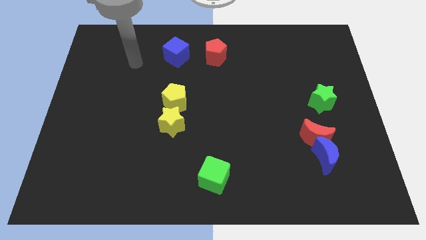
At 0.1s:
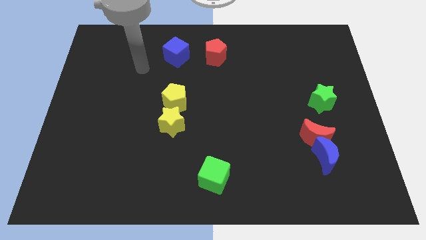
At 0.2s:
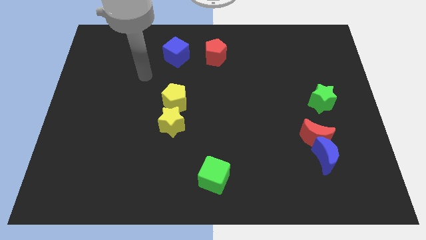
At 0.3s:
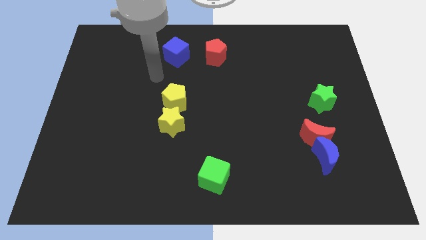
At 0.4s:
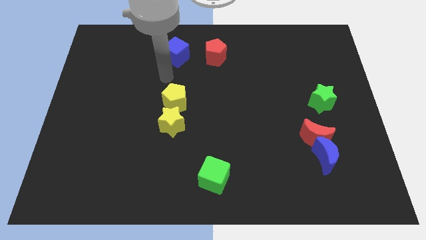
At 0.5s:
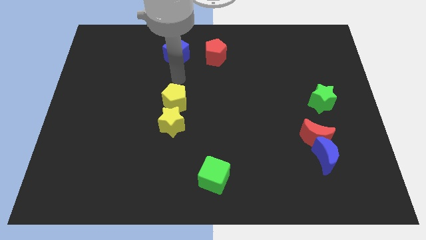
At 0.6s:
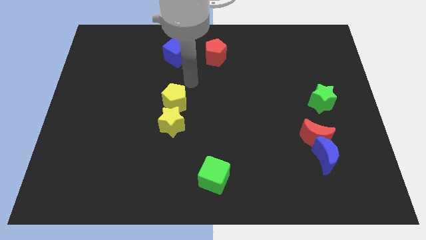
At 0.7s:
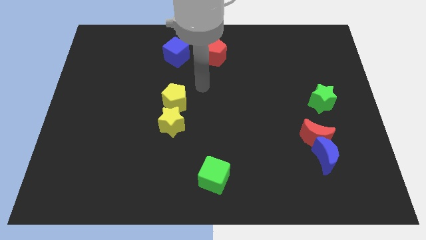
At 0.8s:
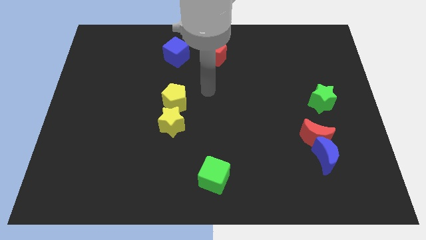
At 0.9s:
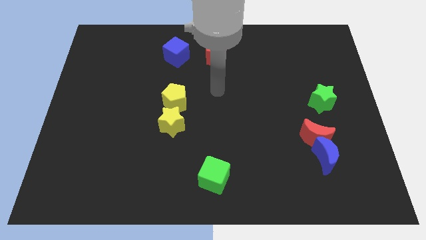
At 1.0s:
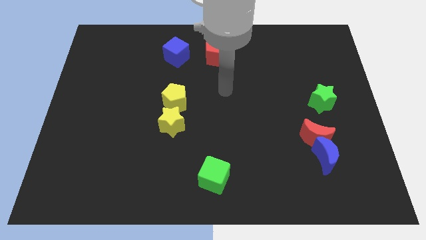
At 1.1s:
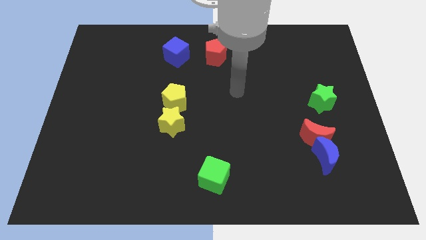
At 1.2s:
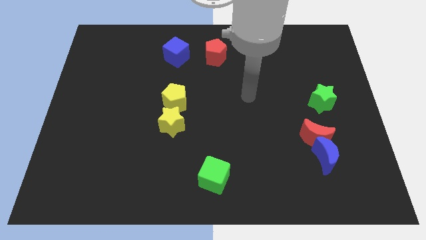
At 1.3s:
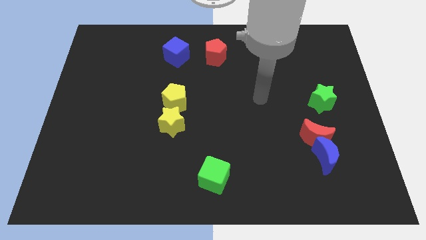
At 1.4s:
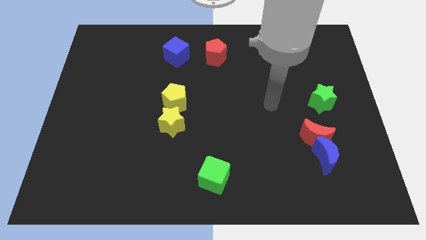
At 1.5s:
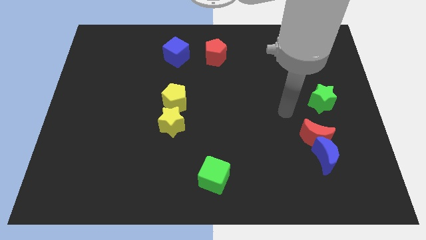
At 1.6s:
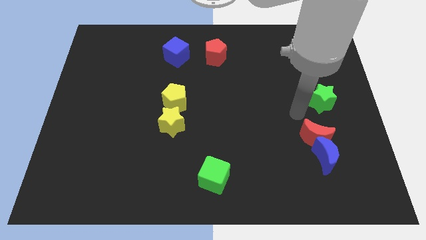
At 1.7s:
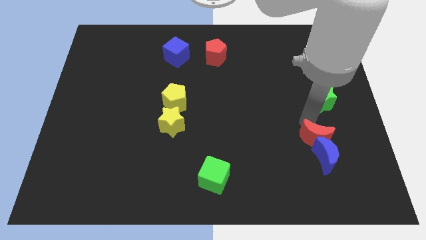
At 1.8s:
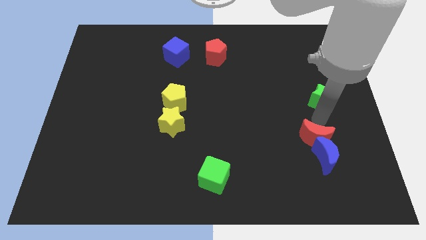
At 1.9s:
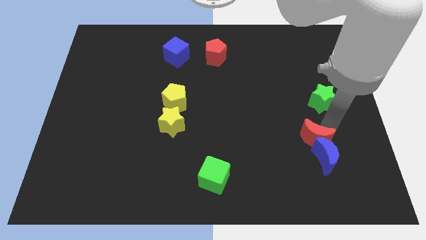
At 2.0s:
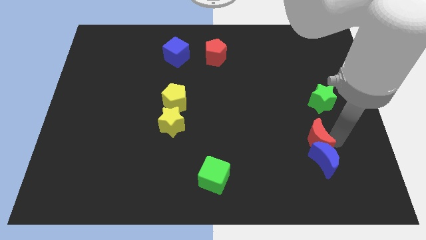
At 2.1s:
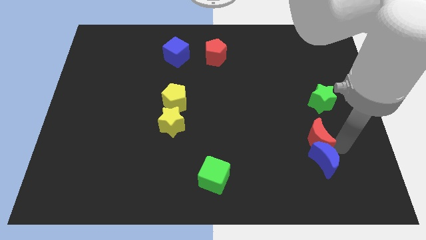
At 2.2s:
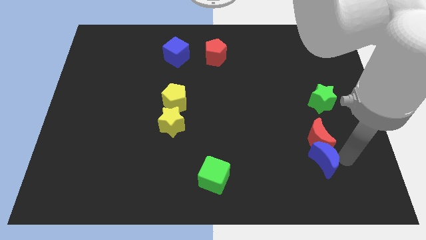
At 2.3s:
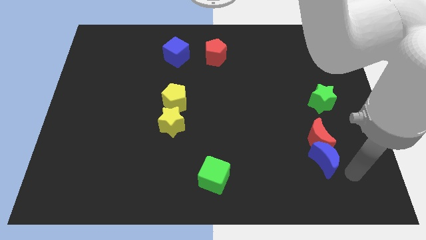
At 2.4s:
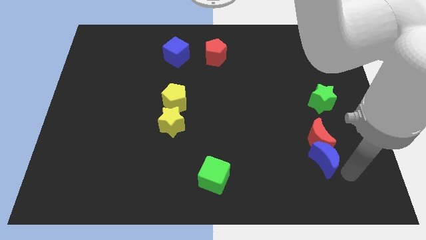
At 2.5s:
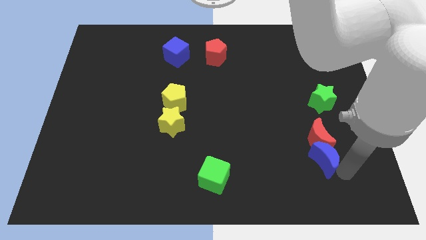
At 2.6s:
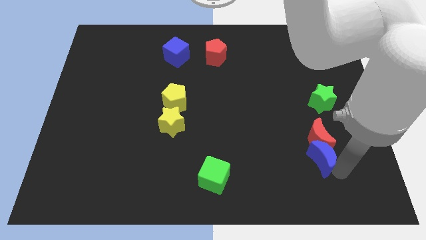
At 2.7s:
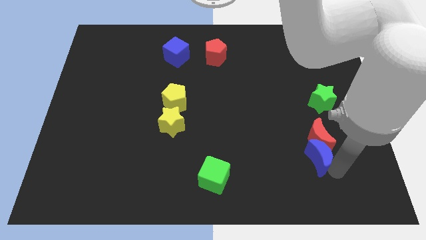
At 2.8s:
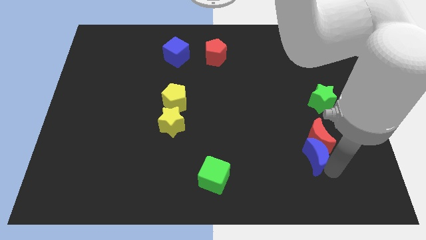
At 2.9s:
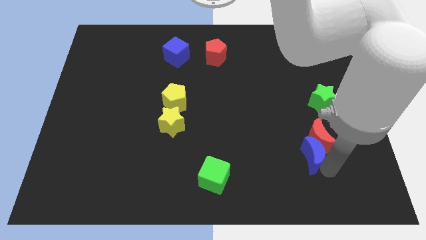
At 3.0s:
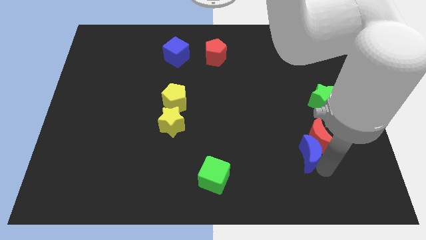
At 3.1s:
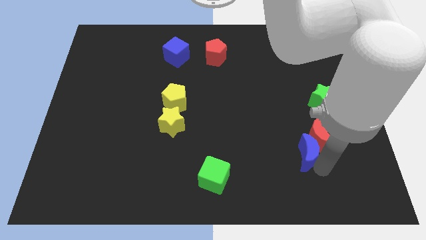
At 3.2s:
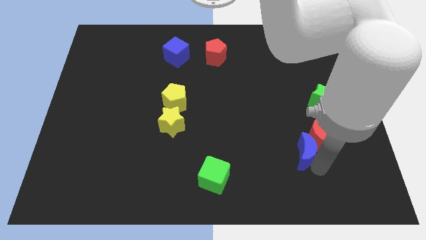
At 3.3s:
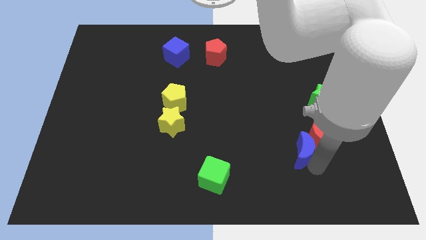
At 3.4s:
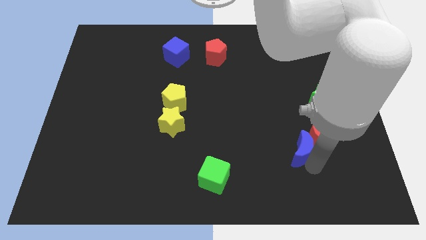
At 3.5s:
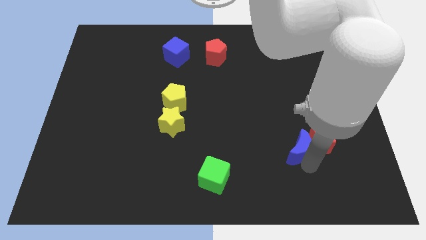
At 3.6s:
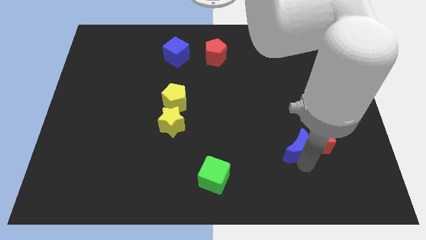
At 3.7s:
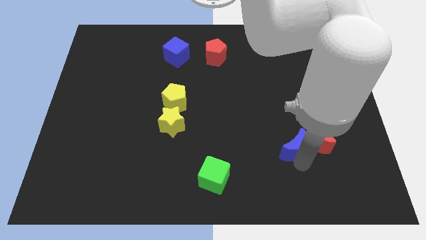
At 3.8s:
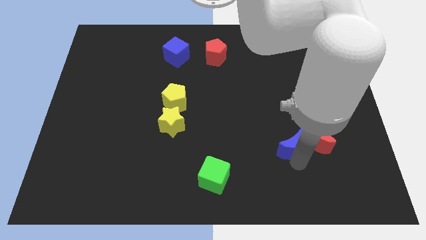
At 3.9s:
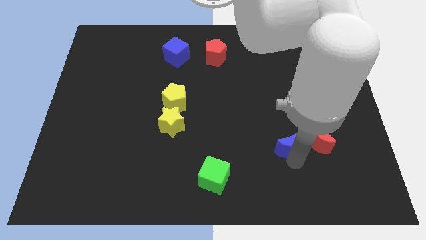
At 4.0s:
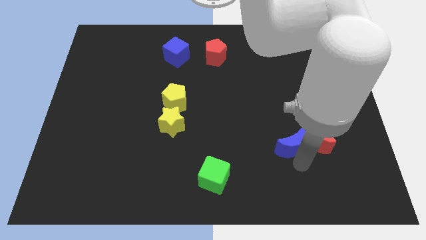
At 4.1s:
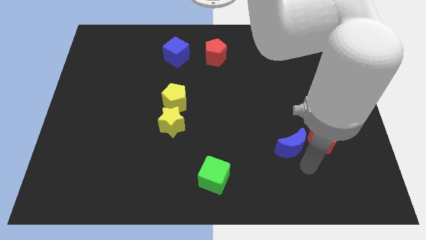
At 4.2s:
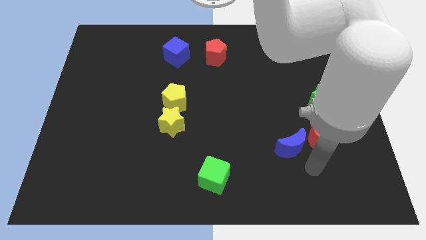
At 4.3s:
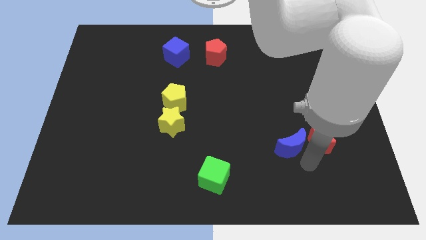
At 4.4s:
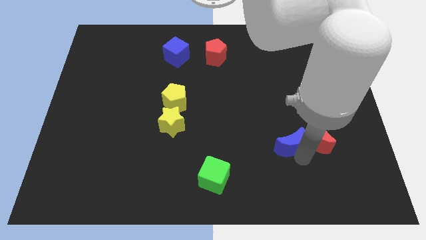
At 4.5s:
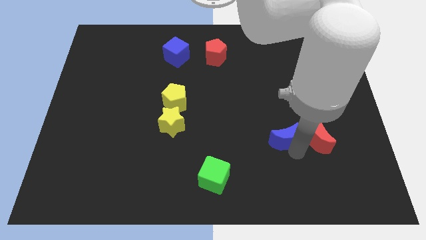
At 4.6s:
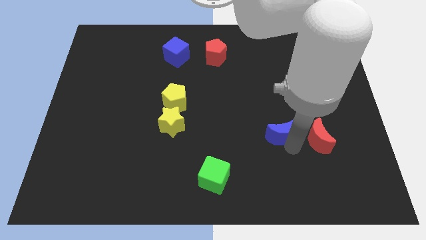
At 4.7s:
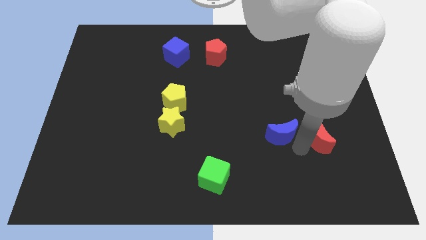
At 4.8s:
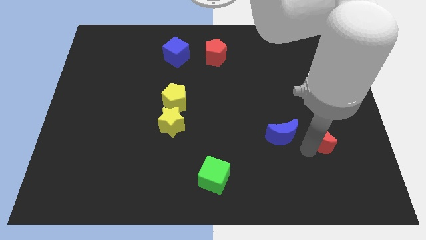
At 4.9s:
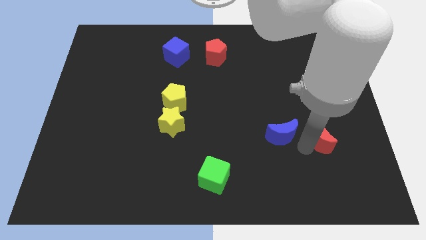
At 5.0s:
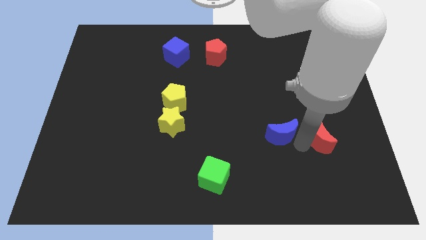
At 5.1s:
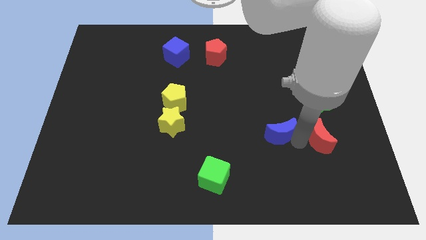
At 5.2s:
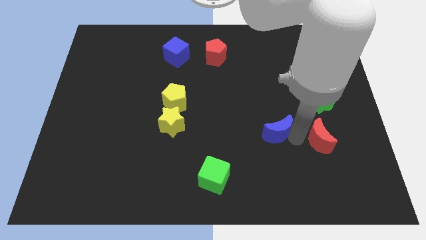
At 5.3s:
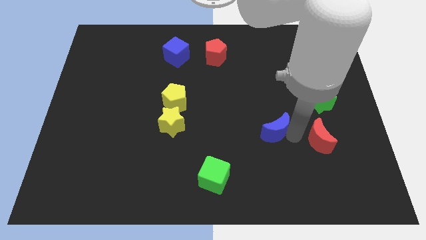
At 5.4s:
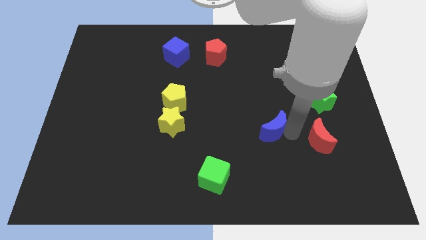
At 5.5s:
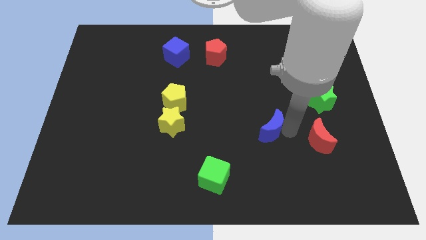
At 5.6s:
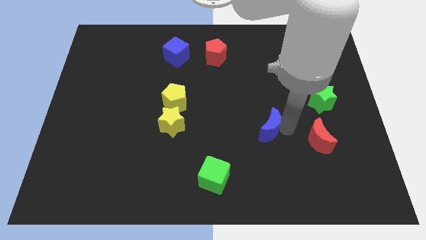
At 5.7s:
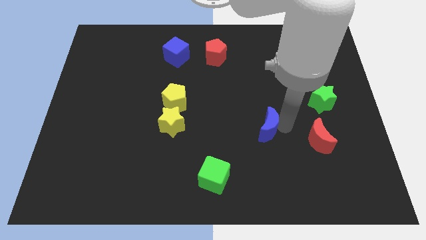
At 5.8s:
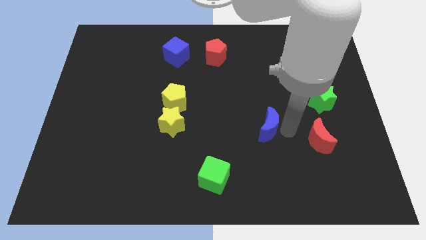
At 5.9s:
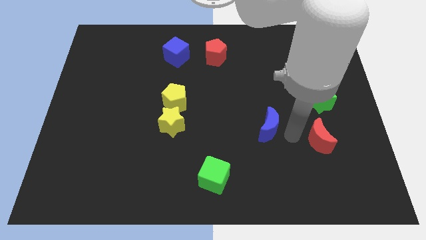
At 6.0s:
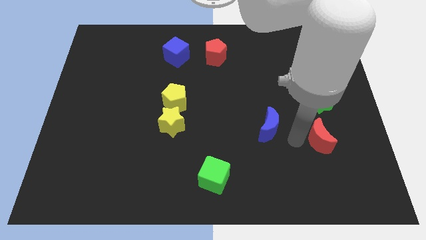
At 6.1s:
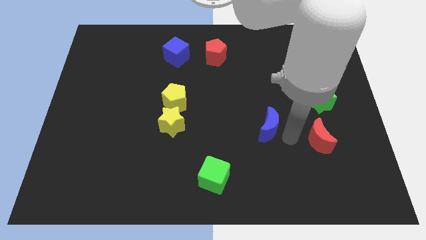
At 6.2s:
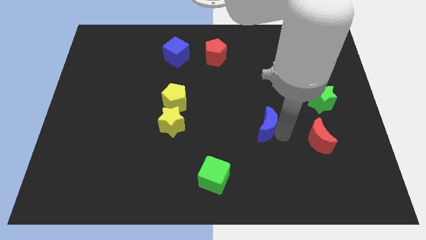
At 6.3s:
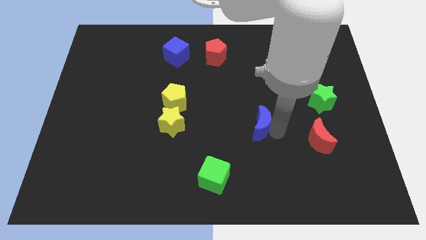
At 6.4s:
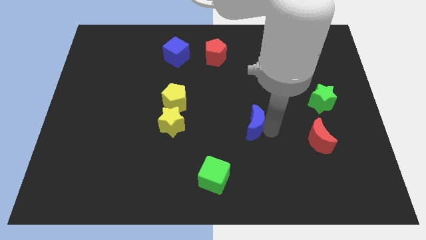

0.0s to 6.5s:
move the blue moon to the center
